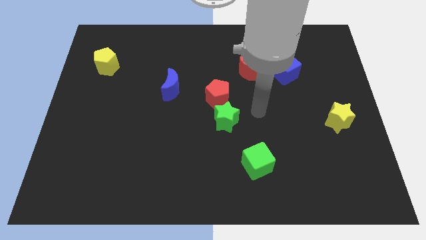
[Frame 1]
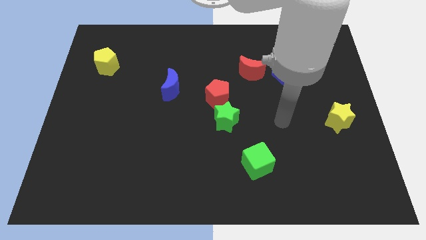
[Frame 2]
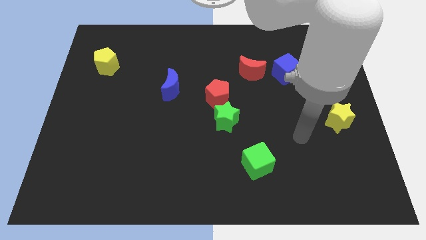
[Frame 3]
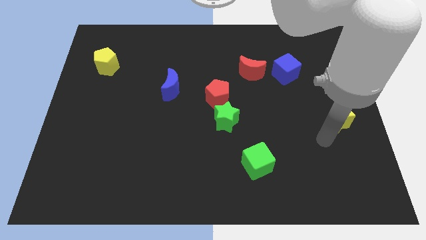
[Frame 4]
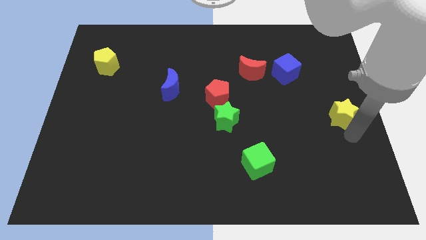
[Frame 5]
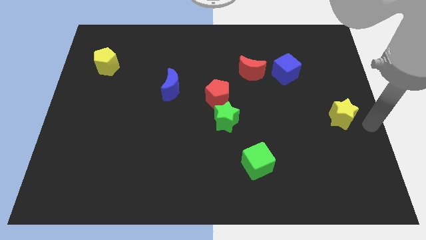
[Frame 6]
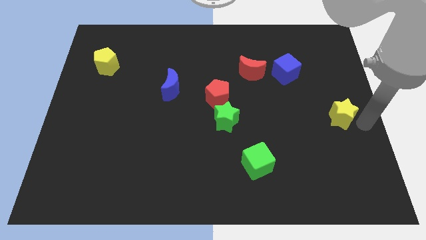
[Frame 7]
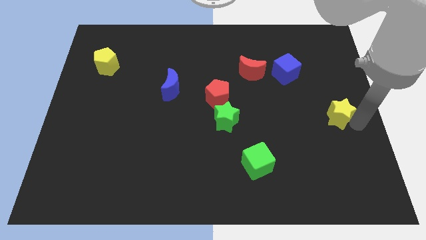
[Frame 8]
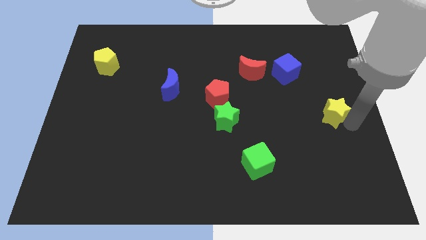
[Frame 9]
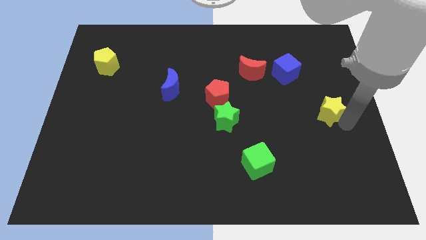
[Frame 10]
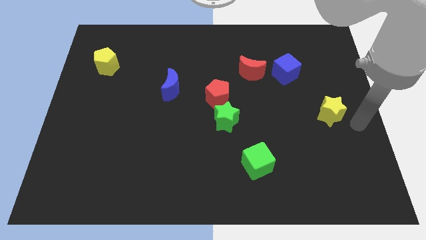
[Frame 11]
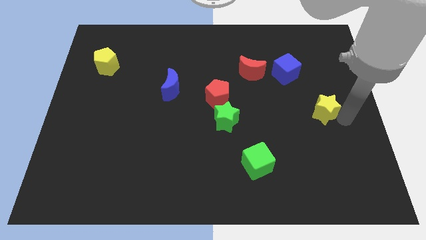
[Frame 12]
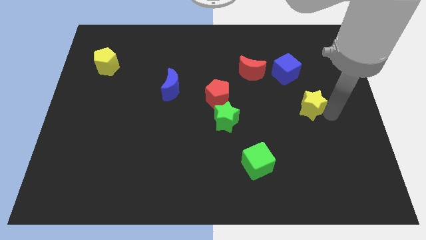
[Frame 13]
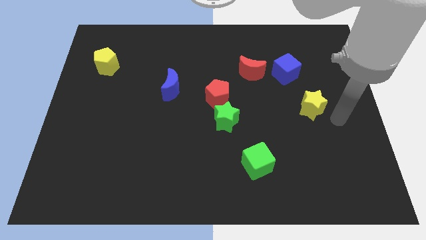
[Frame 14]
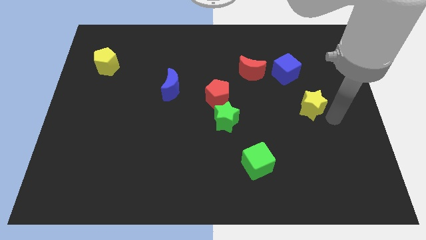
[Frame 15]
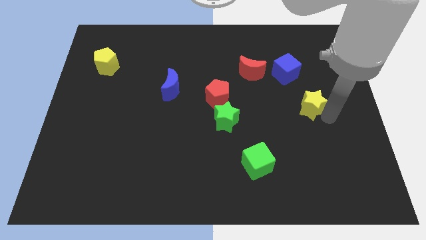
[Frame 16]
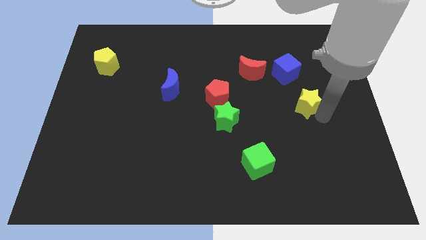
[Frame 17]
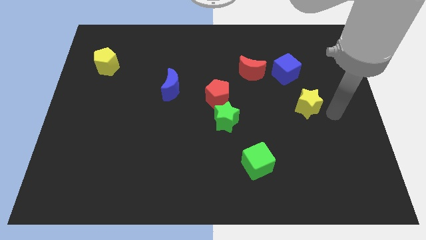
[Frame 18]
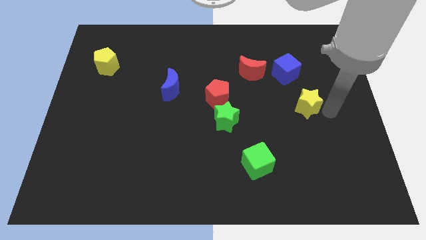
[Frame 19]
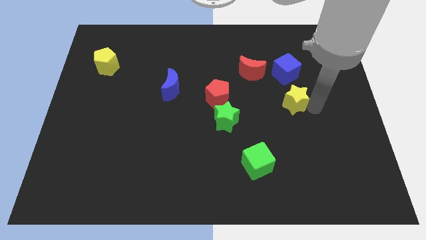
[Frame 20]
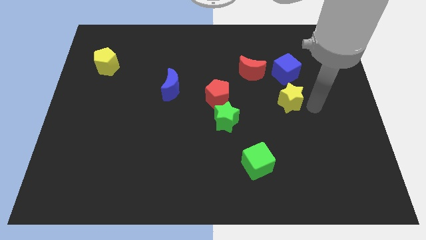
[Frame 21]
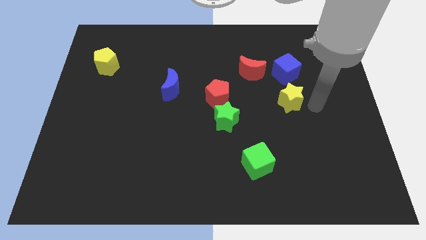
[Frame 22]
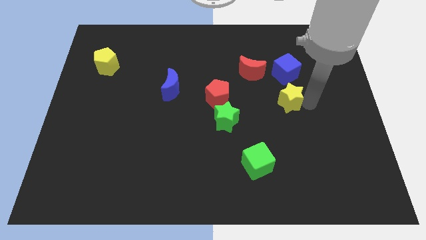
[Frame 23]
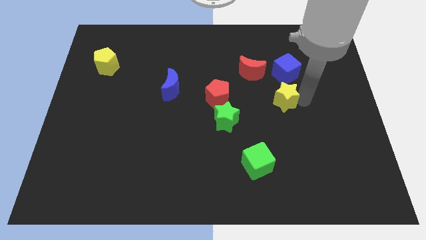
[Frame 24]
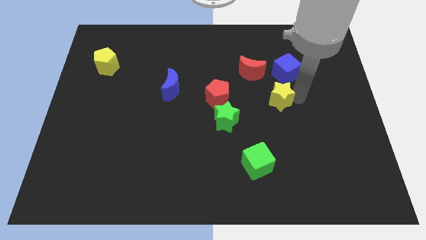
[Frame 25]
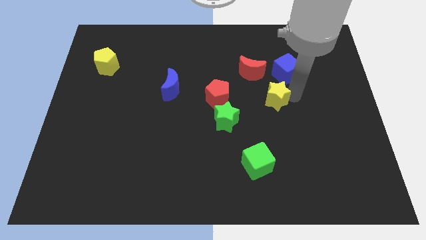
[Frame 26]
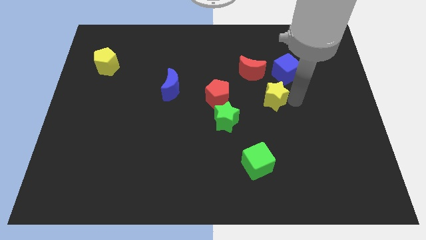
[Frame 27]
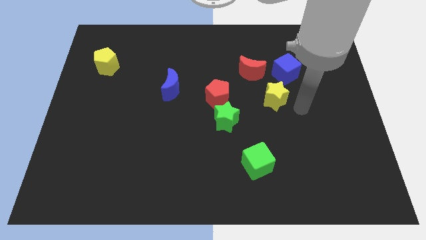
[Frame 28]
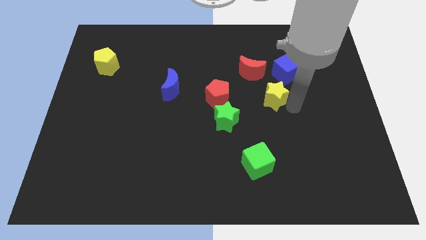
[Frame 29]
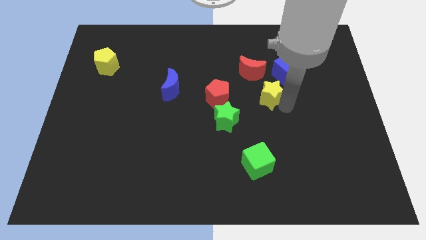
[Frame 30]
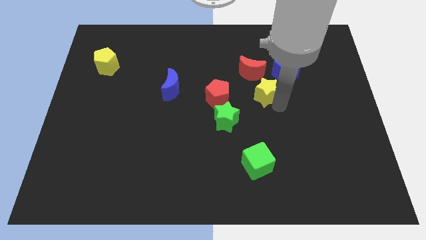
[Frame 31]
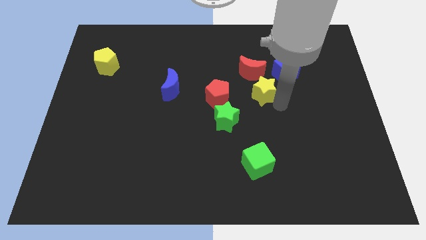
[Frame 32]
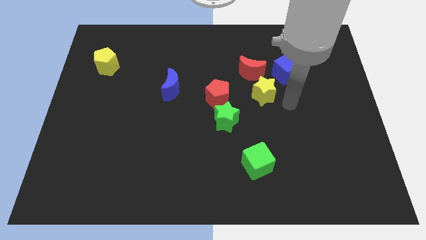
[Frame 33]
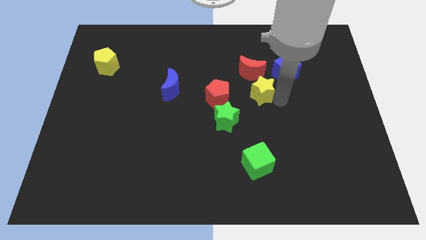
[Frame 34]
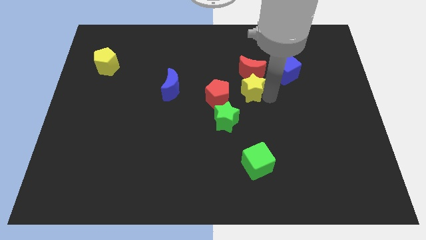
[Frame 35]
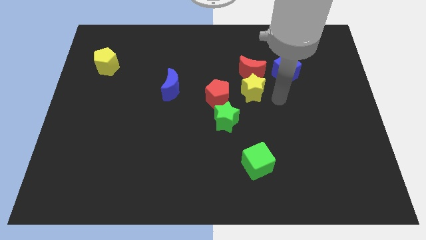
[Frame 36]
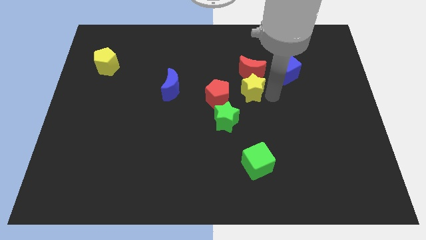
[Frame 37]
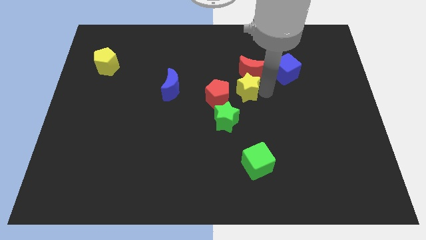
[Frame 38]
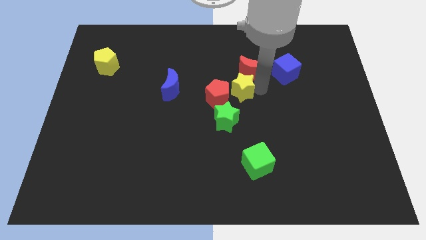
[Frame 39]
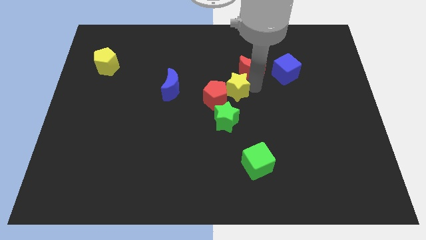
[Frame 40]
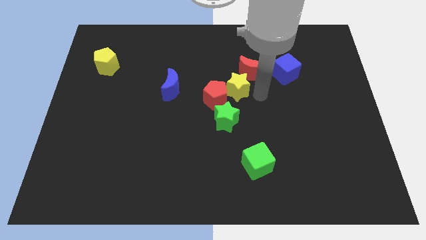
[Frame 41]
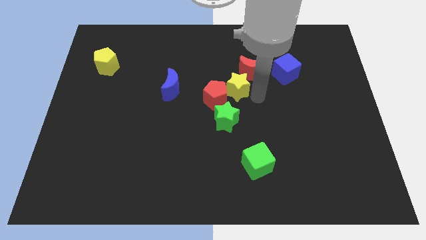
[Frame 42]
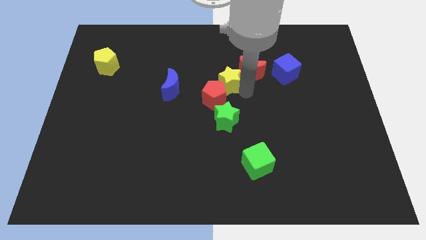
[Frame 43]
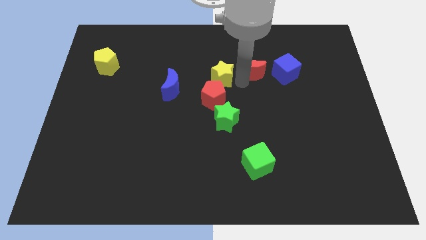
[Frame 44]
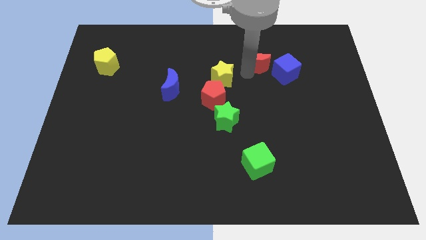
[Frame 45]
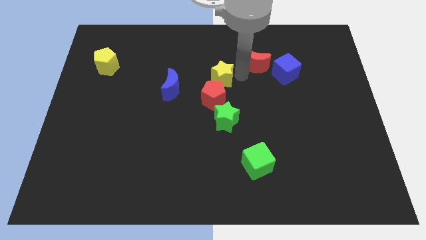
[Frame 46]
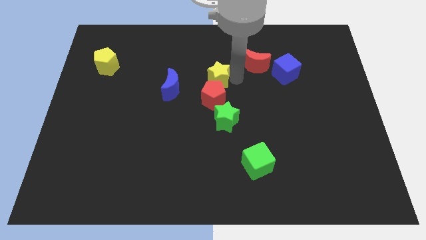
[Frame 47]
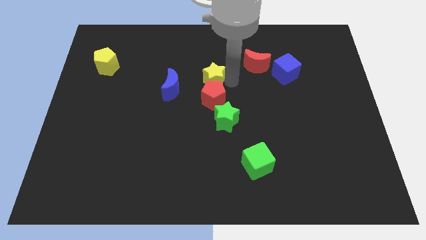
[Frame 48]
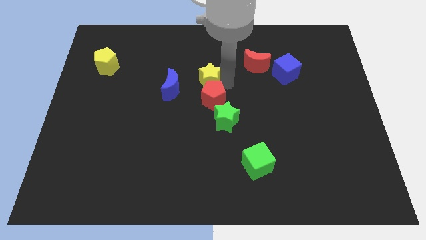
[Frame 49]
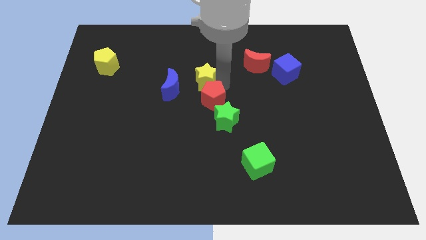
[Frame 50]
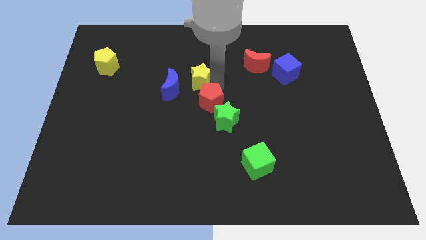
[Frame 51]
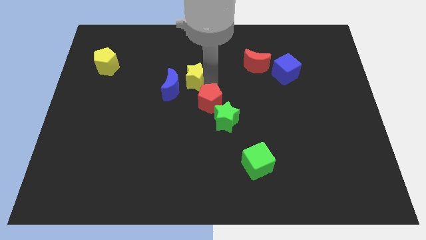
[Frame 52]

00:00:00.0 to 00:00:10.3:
move the yellow star next to the blue moon

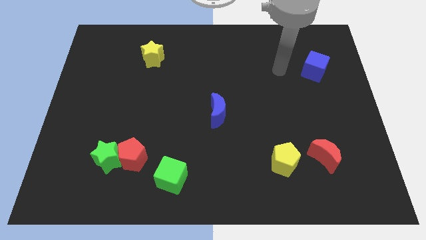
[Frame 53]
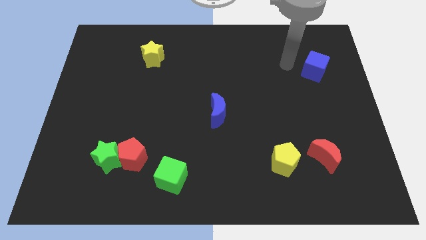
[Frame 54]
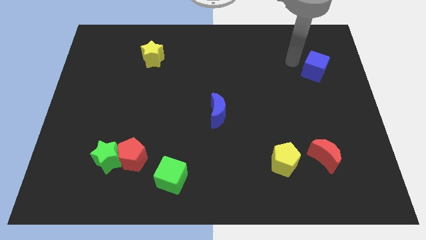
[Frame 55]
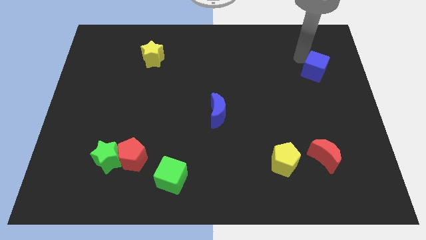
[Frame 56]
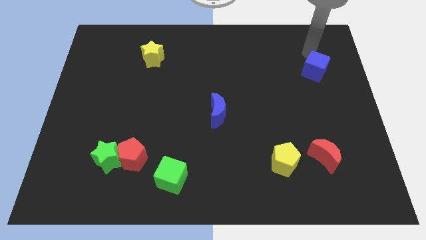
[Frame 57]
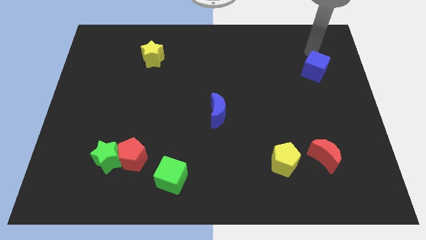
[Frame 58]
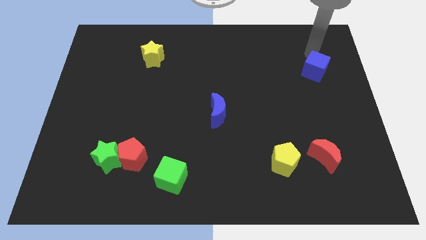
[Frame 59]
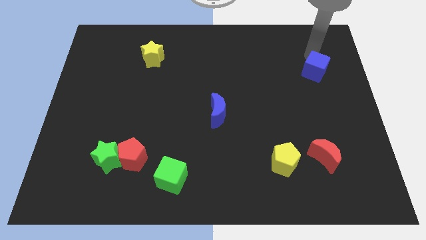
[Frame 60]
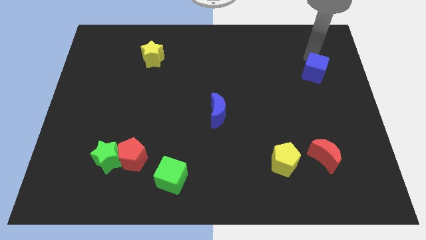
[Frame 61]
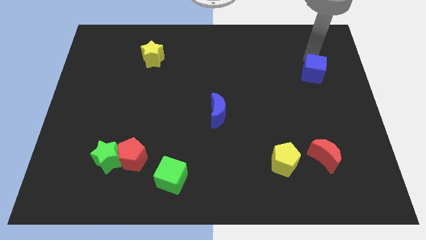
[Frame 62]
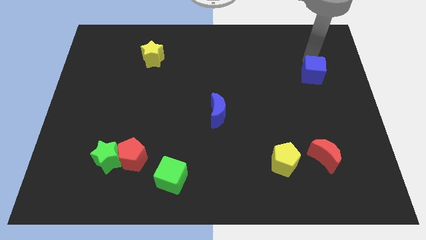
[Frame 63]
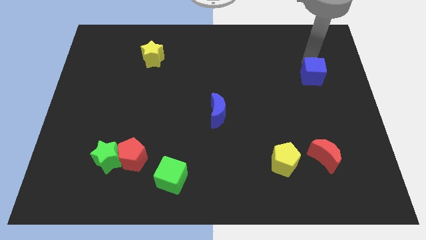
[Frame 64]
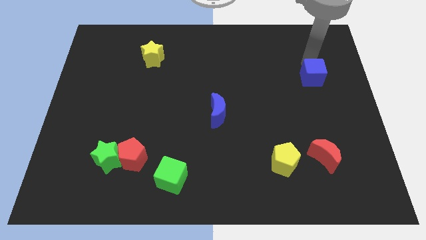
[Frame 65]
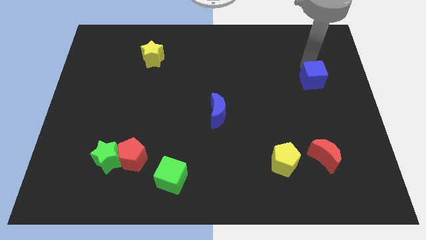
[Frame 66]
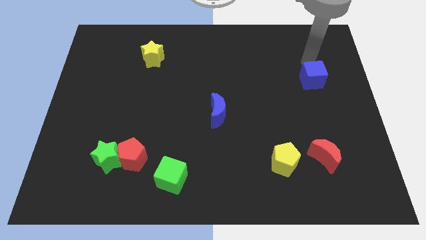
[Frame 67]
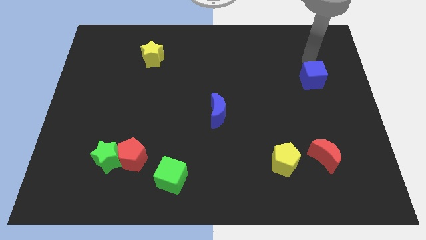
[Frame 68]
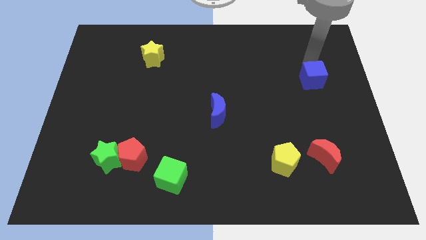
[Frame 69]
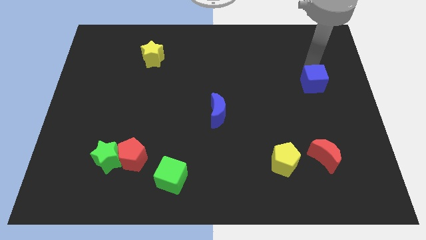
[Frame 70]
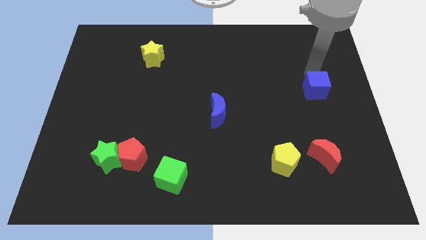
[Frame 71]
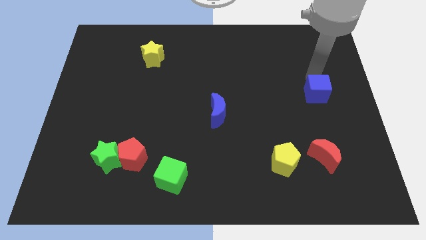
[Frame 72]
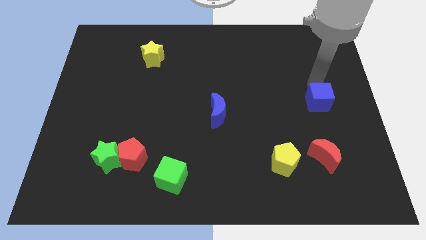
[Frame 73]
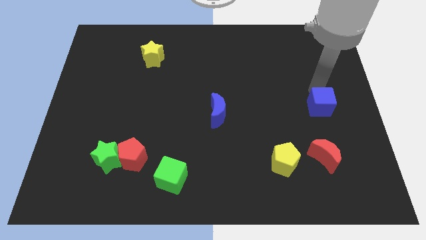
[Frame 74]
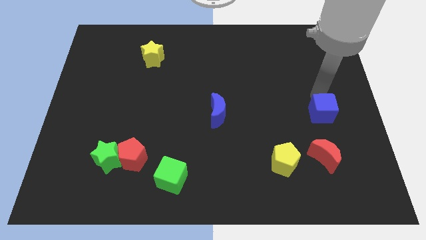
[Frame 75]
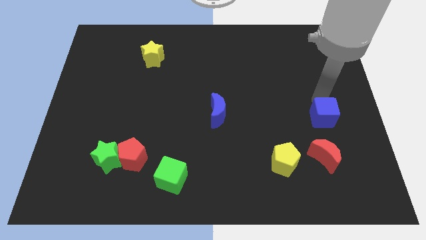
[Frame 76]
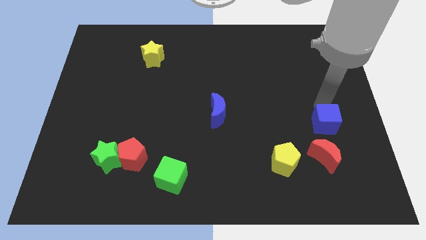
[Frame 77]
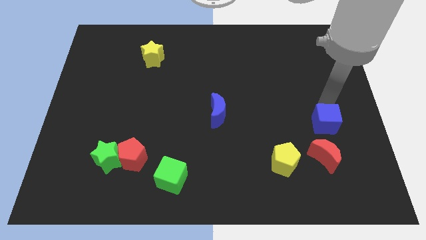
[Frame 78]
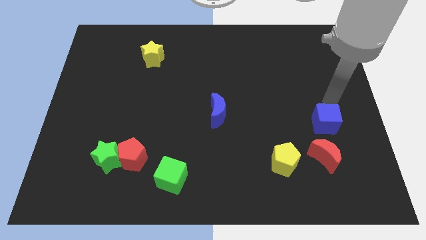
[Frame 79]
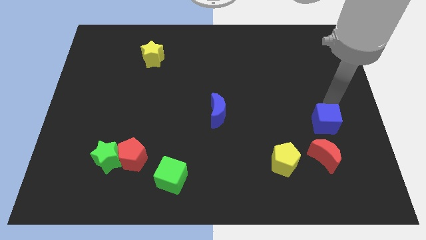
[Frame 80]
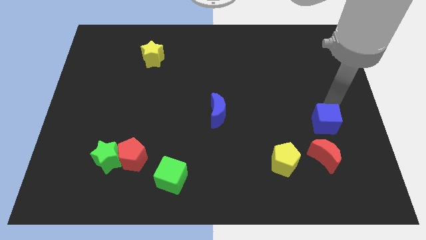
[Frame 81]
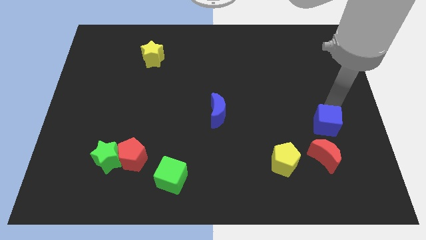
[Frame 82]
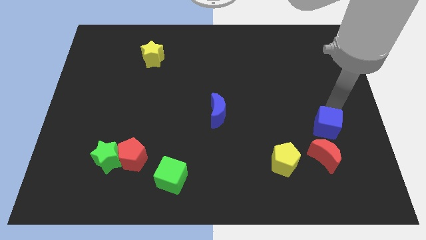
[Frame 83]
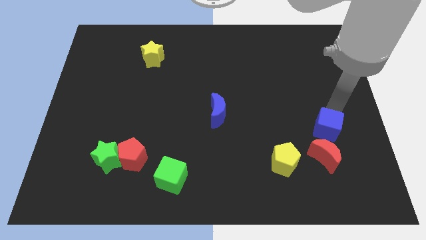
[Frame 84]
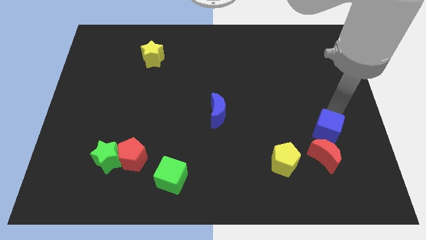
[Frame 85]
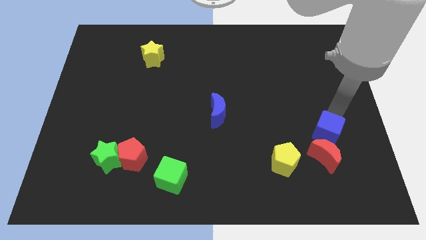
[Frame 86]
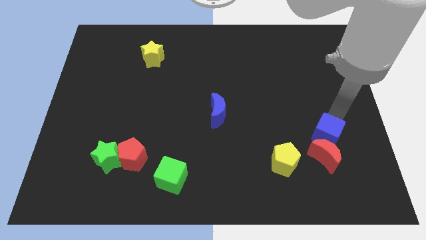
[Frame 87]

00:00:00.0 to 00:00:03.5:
put the blue cube next to the red moon
